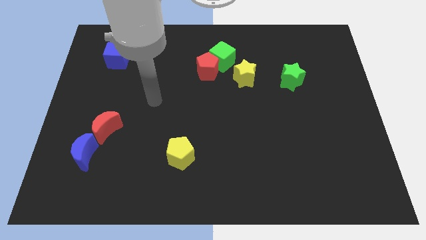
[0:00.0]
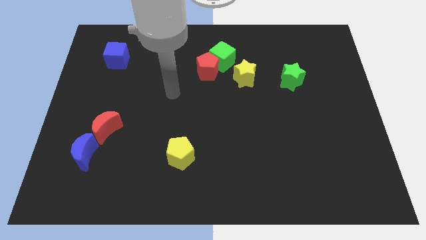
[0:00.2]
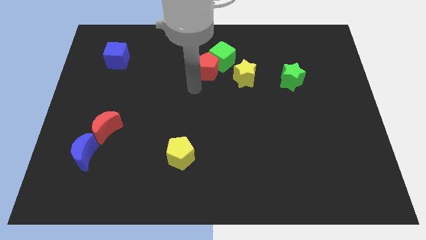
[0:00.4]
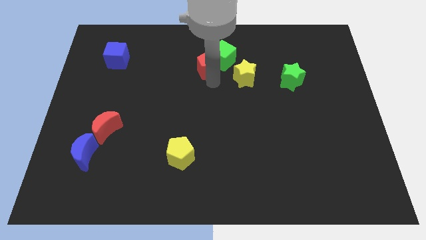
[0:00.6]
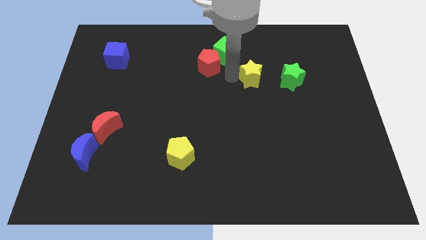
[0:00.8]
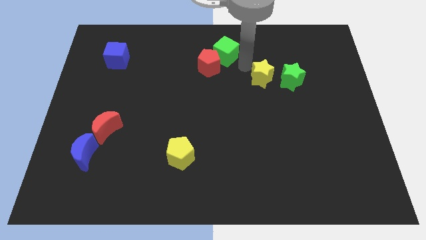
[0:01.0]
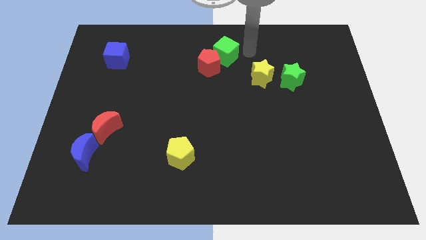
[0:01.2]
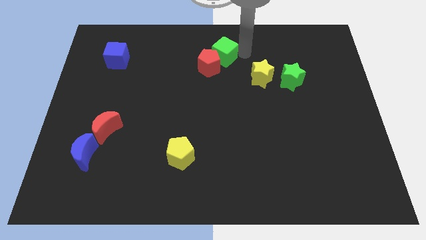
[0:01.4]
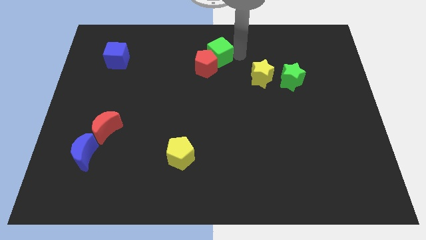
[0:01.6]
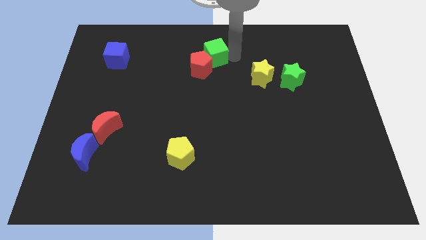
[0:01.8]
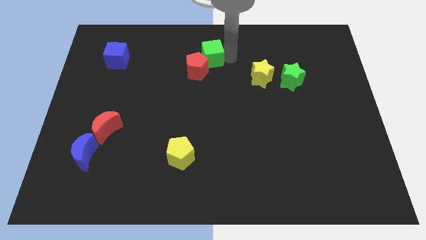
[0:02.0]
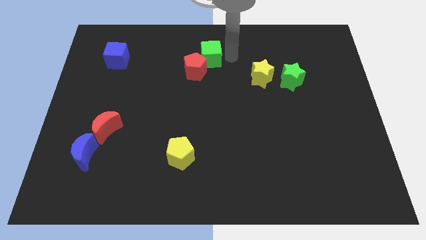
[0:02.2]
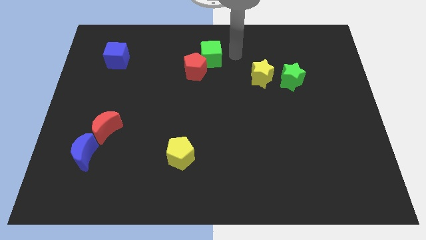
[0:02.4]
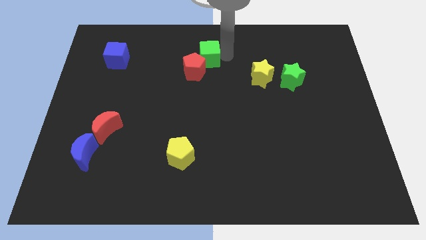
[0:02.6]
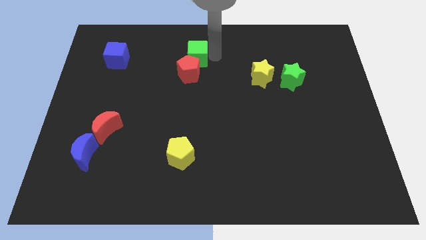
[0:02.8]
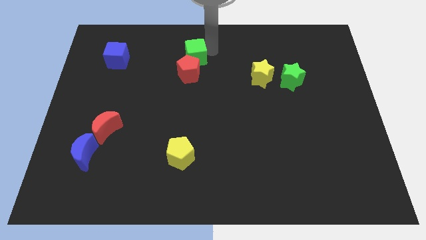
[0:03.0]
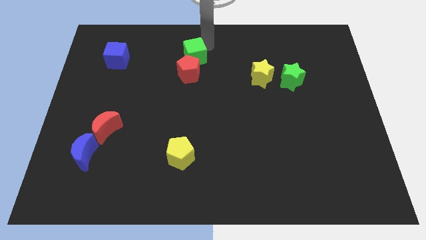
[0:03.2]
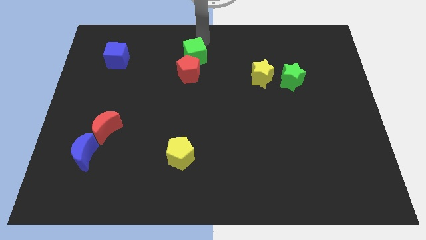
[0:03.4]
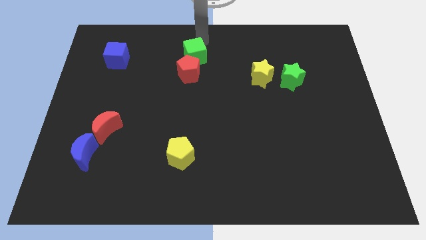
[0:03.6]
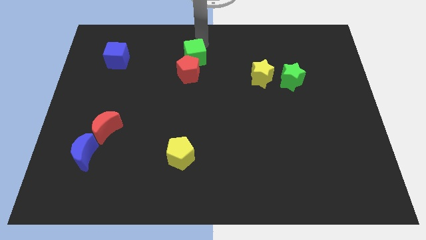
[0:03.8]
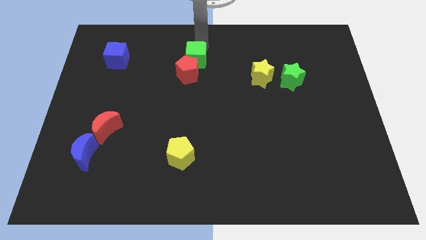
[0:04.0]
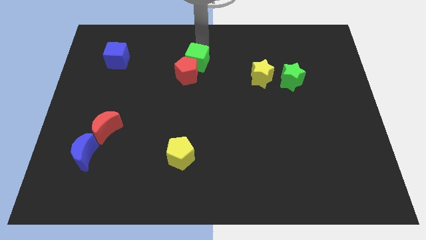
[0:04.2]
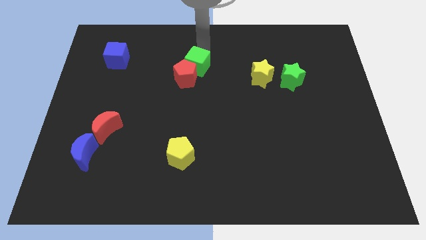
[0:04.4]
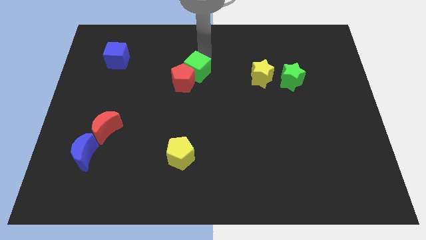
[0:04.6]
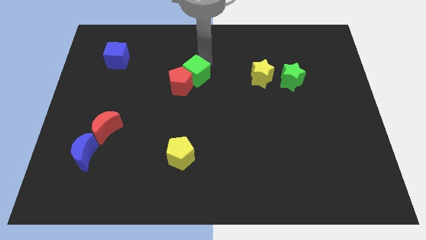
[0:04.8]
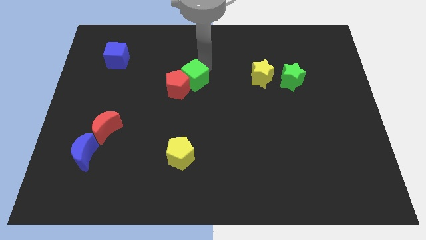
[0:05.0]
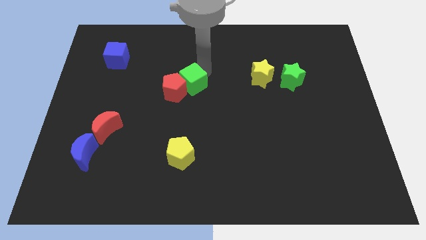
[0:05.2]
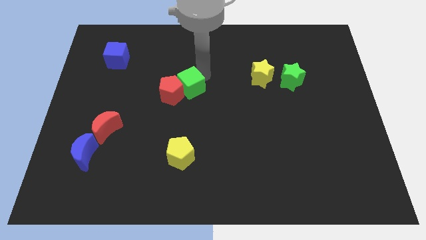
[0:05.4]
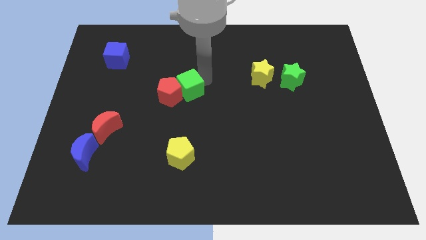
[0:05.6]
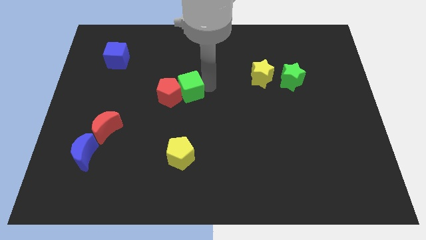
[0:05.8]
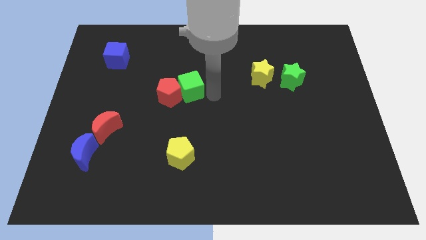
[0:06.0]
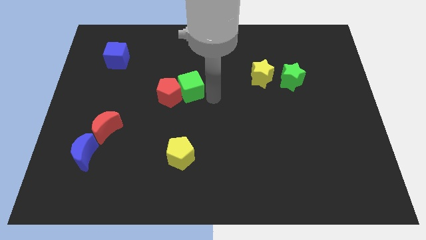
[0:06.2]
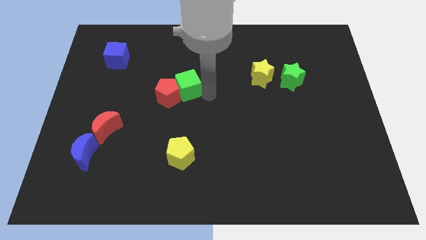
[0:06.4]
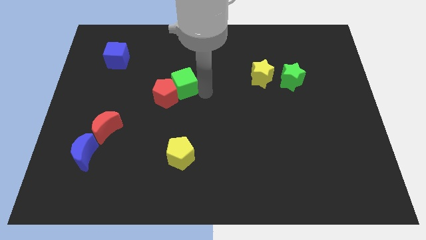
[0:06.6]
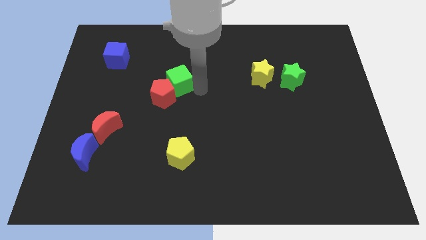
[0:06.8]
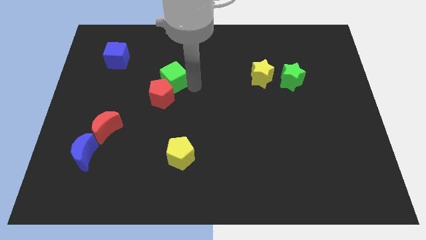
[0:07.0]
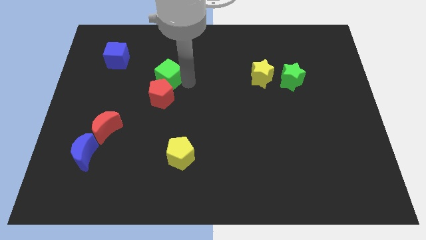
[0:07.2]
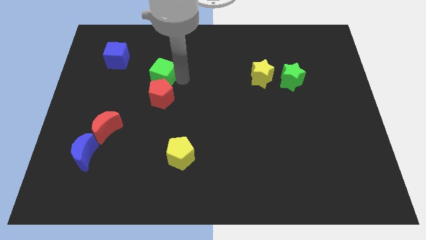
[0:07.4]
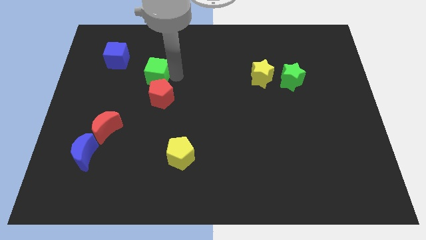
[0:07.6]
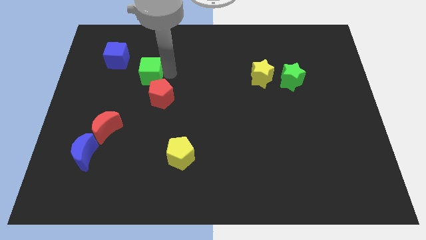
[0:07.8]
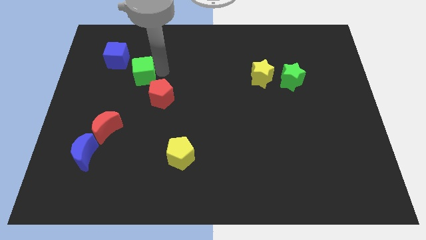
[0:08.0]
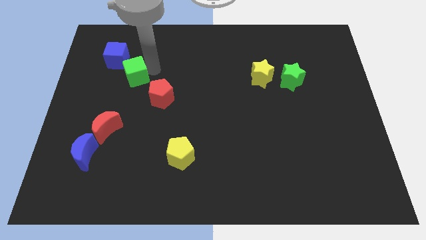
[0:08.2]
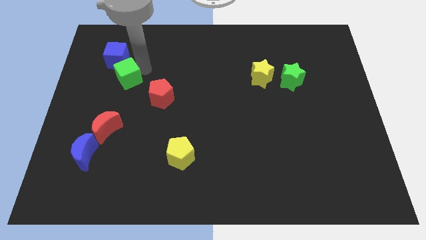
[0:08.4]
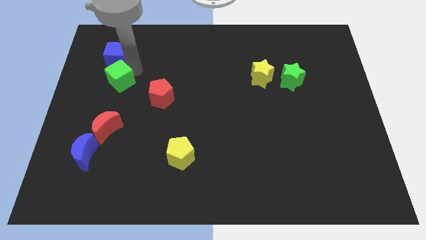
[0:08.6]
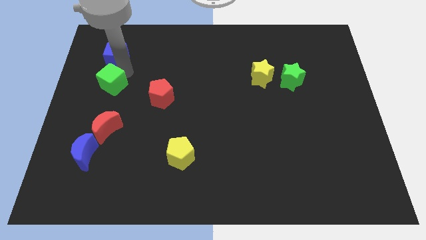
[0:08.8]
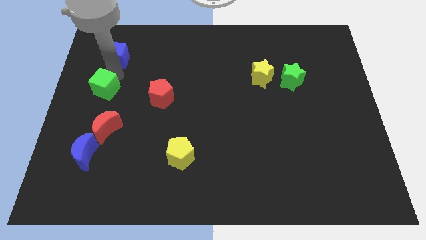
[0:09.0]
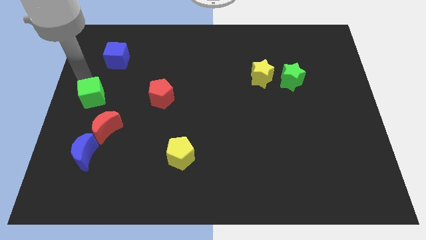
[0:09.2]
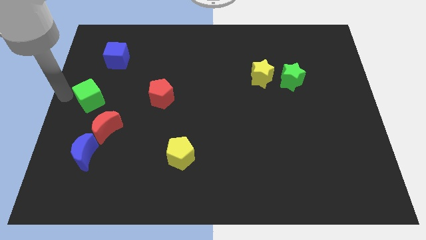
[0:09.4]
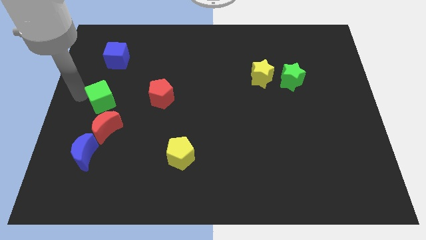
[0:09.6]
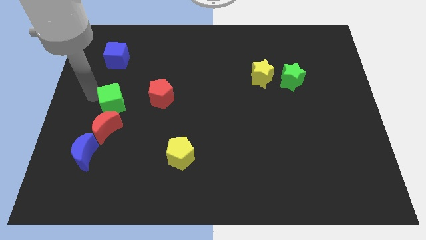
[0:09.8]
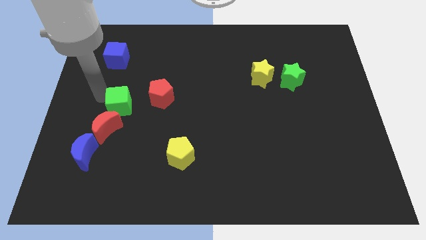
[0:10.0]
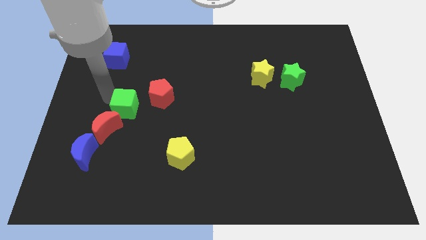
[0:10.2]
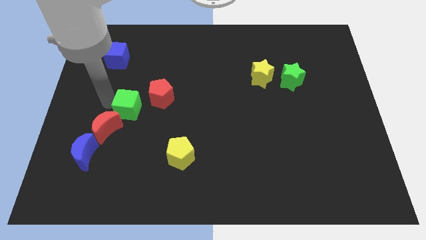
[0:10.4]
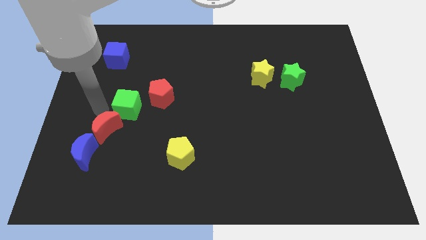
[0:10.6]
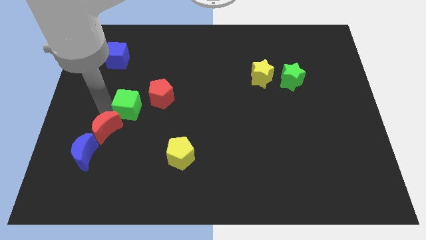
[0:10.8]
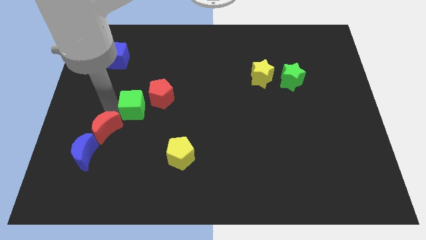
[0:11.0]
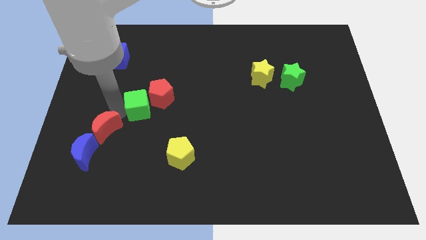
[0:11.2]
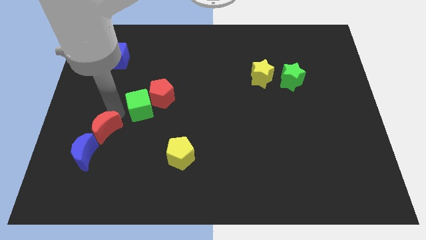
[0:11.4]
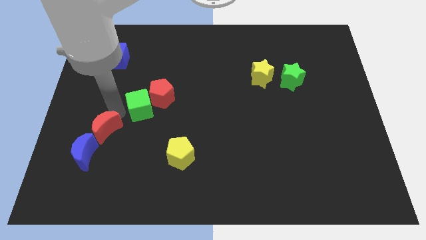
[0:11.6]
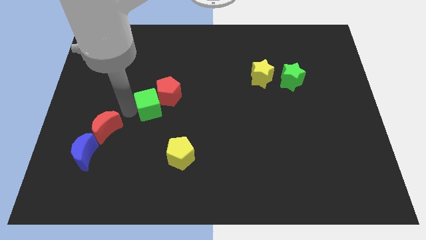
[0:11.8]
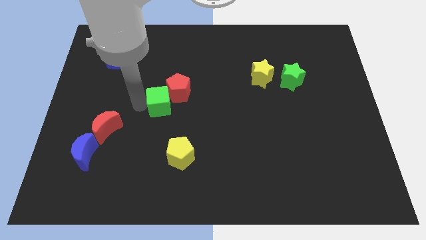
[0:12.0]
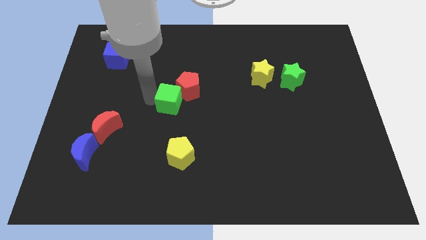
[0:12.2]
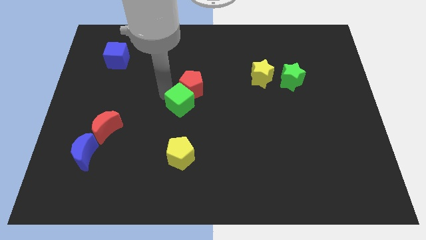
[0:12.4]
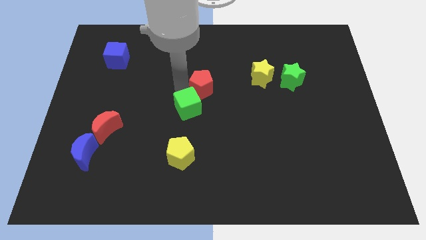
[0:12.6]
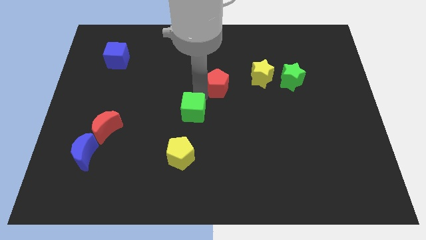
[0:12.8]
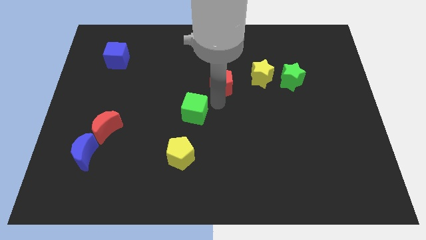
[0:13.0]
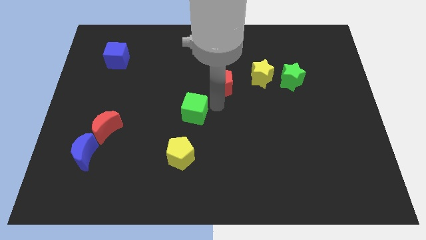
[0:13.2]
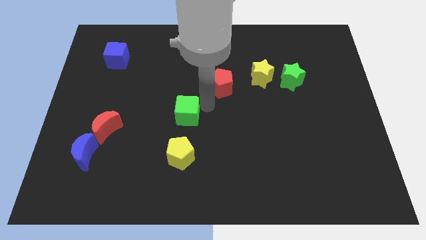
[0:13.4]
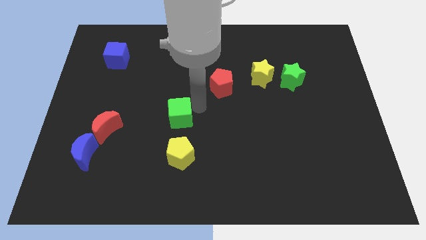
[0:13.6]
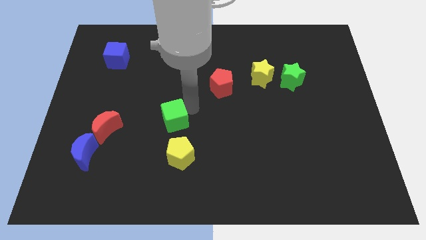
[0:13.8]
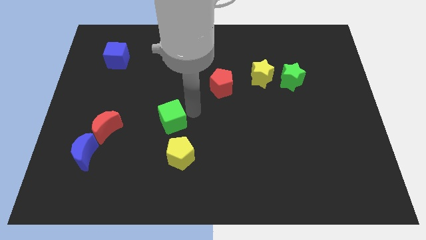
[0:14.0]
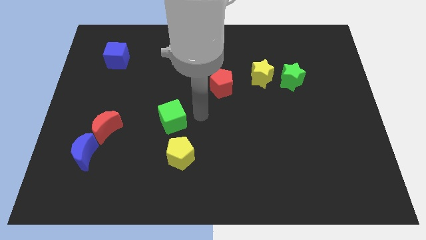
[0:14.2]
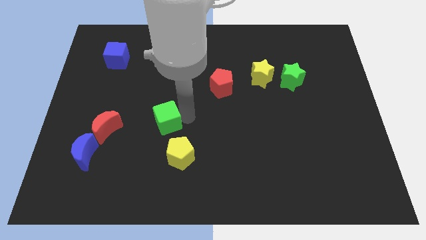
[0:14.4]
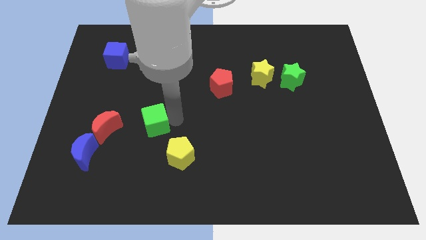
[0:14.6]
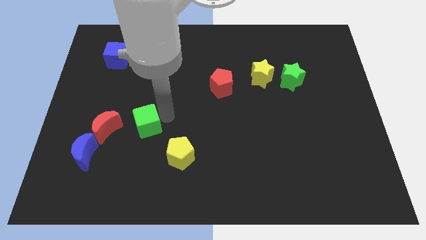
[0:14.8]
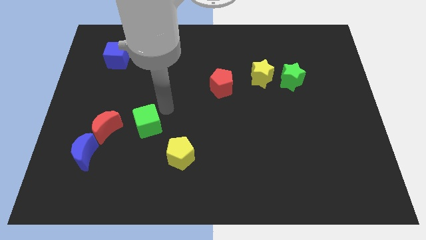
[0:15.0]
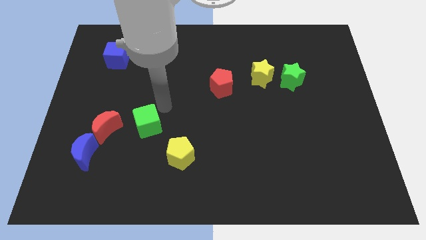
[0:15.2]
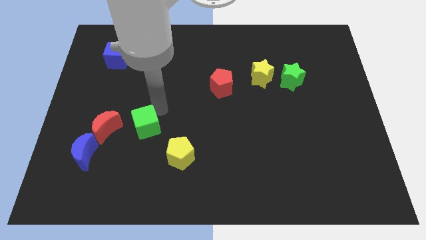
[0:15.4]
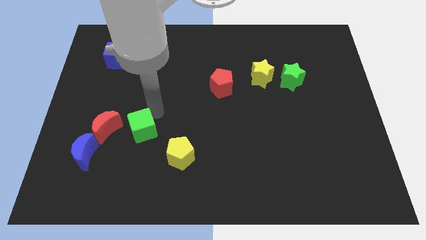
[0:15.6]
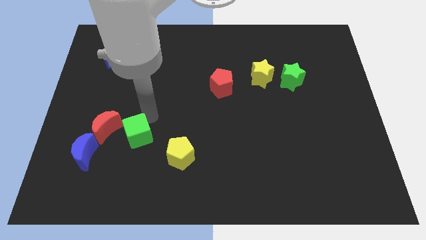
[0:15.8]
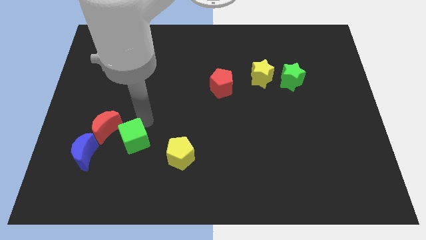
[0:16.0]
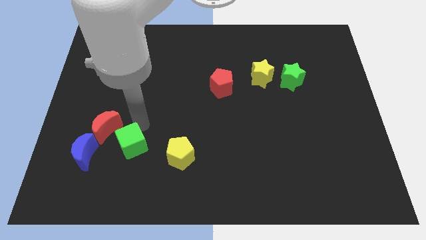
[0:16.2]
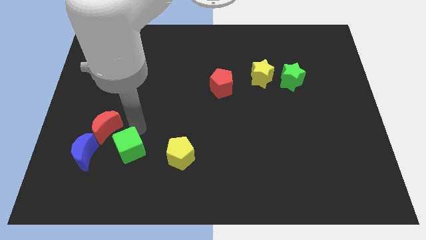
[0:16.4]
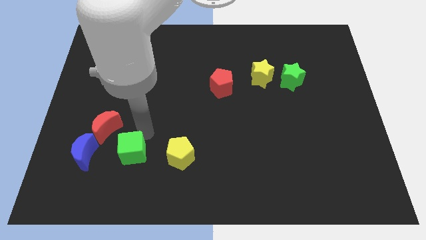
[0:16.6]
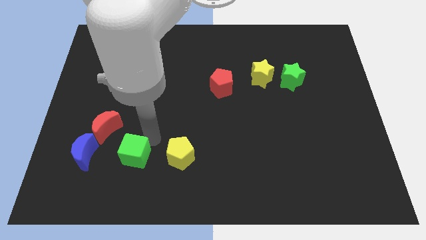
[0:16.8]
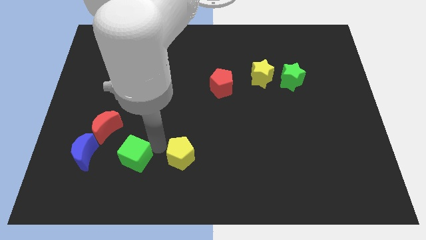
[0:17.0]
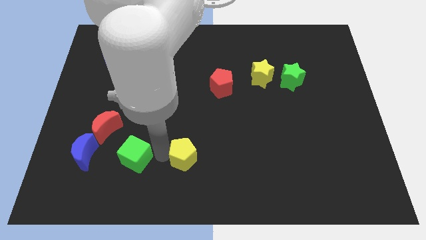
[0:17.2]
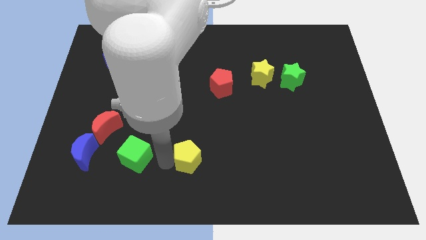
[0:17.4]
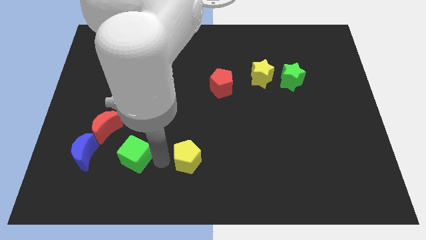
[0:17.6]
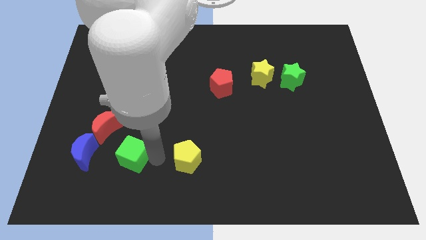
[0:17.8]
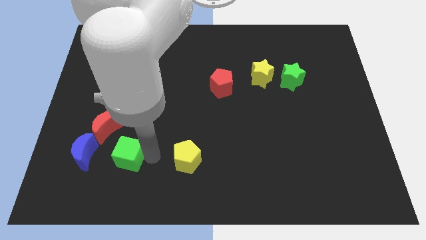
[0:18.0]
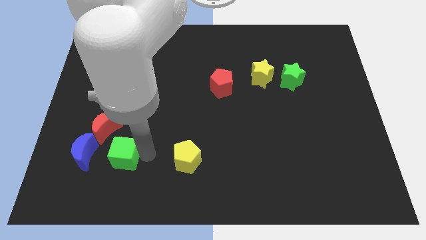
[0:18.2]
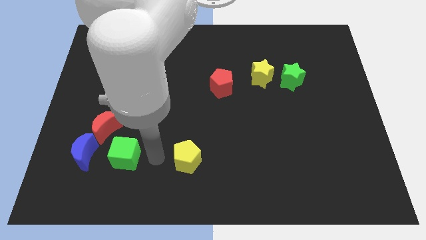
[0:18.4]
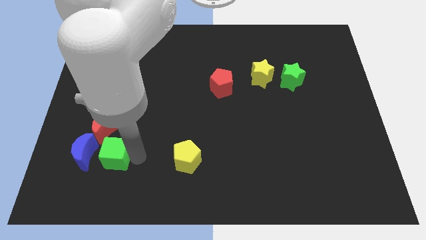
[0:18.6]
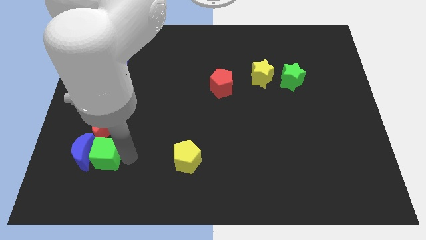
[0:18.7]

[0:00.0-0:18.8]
put the green cube next to the blue moon
